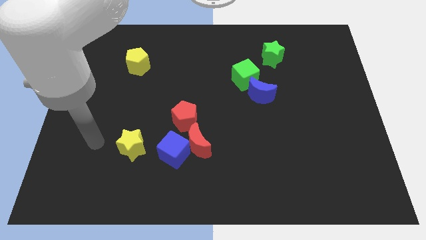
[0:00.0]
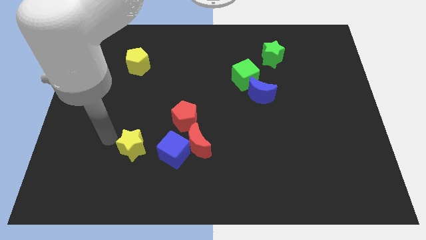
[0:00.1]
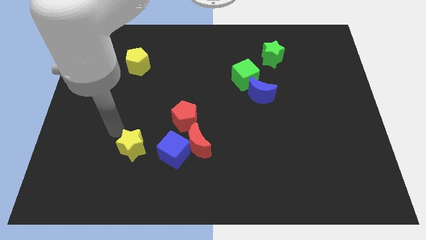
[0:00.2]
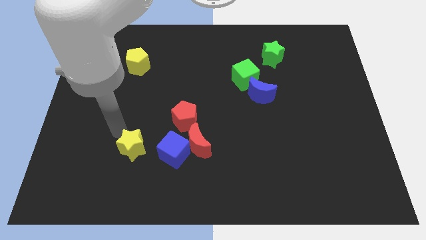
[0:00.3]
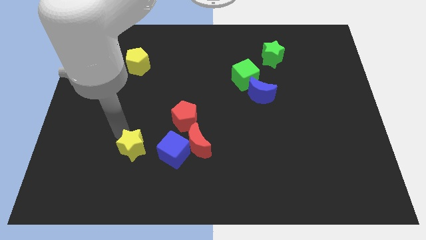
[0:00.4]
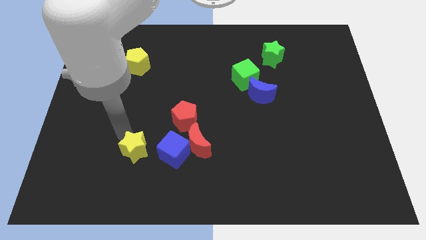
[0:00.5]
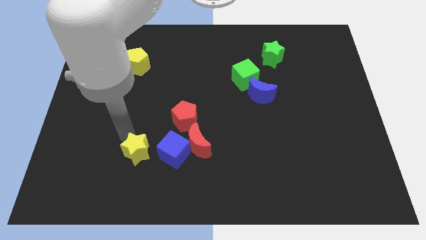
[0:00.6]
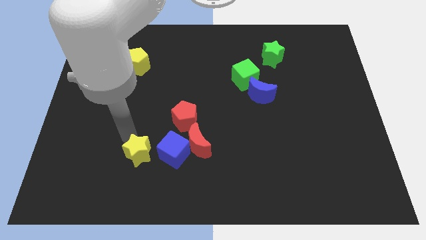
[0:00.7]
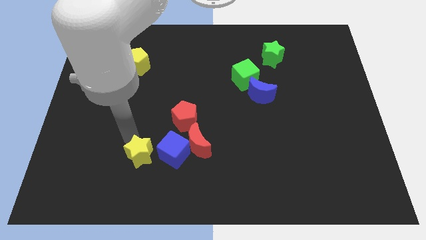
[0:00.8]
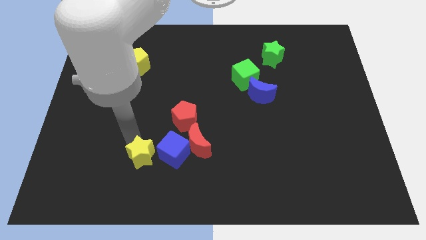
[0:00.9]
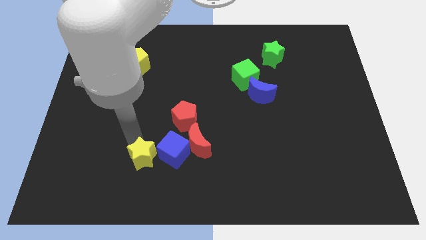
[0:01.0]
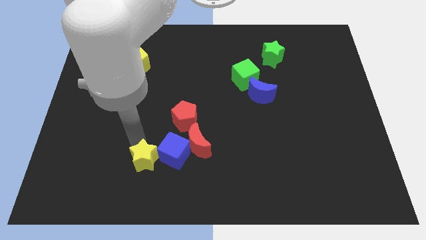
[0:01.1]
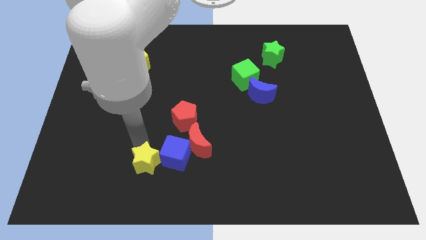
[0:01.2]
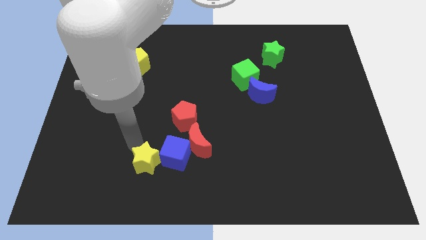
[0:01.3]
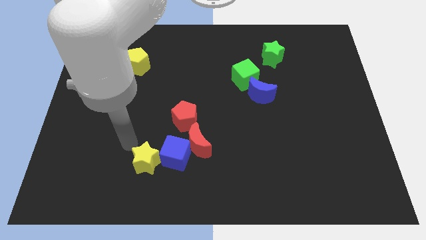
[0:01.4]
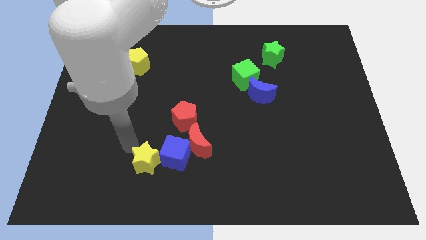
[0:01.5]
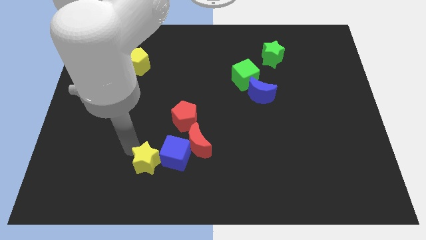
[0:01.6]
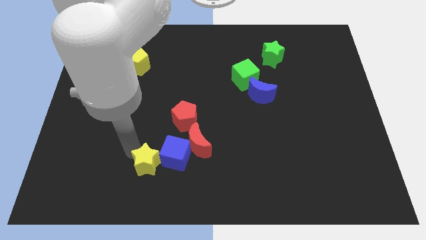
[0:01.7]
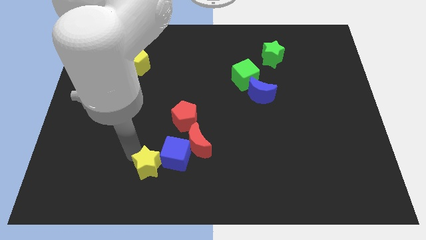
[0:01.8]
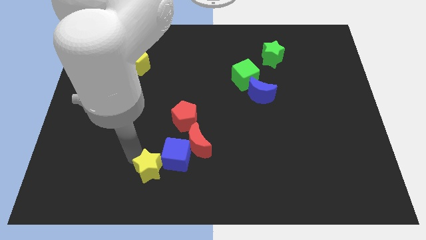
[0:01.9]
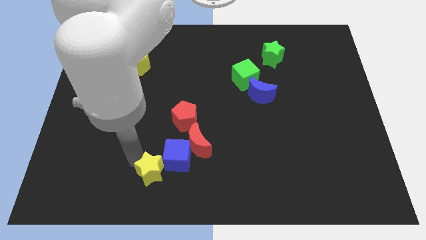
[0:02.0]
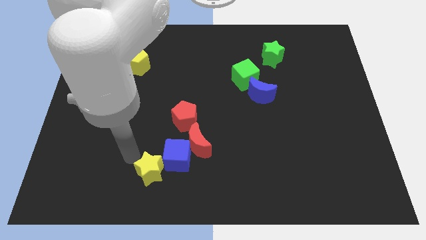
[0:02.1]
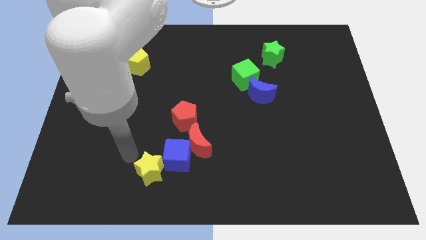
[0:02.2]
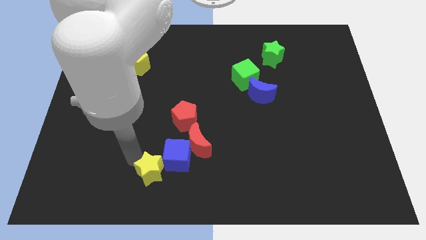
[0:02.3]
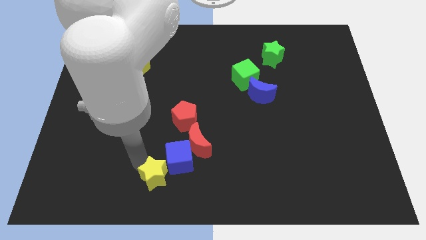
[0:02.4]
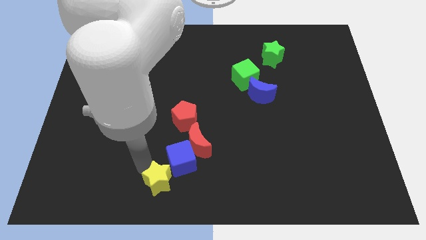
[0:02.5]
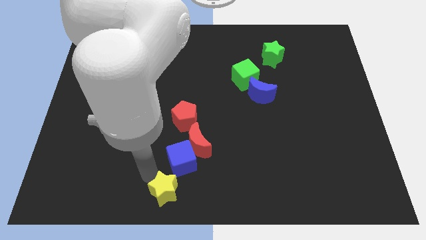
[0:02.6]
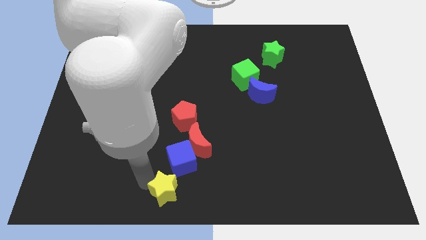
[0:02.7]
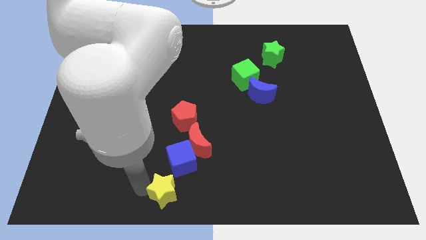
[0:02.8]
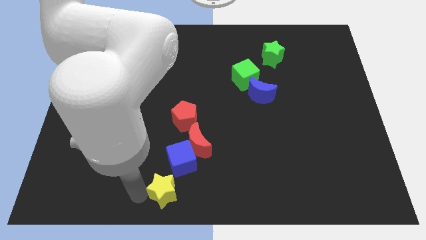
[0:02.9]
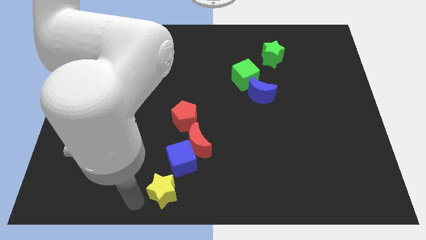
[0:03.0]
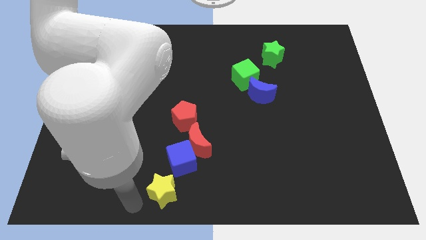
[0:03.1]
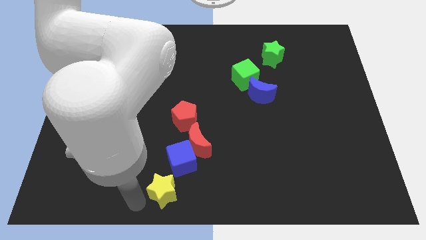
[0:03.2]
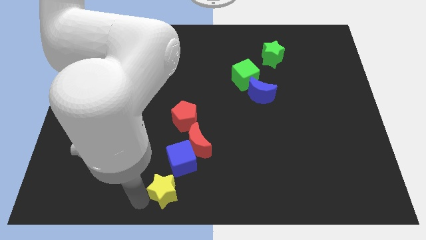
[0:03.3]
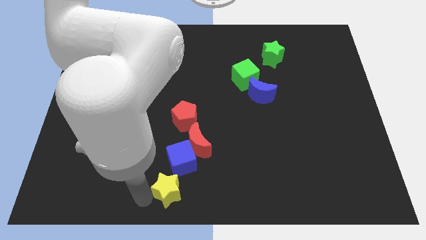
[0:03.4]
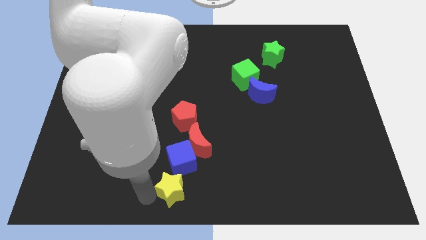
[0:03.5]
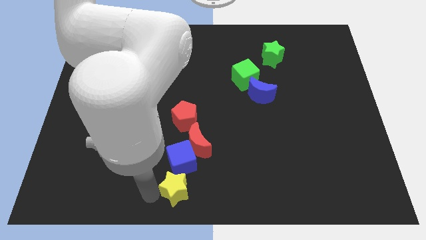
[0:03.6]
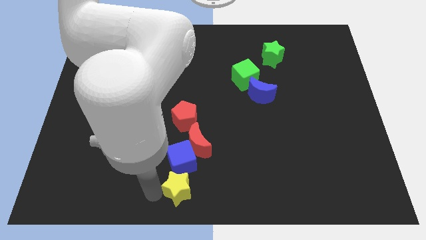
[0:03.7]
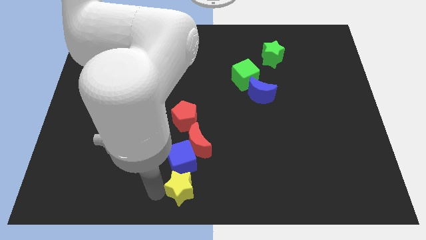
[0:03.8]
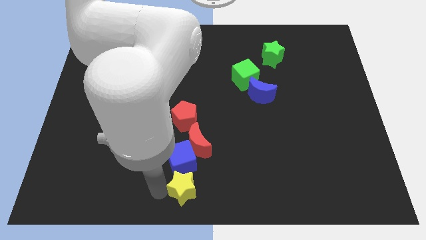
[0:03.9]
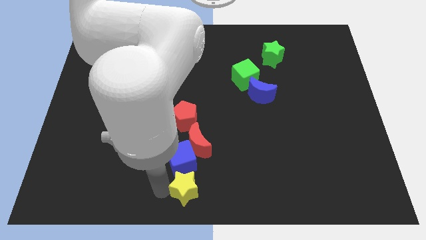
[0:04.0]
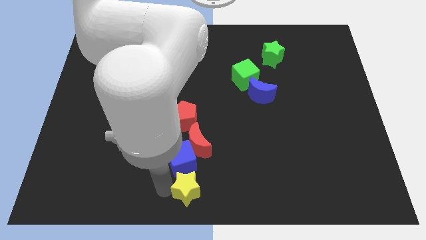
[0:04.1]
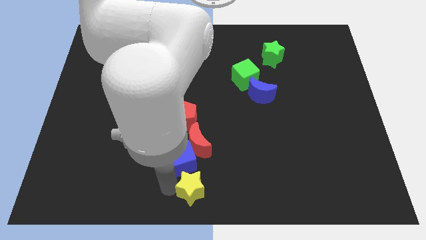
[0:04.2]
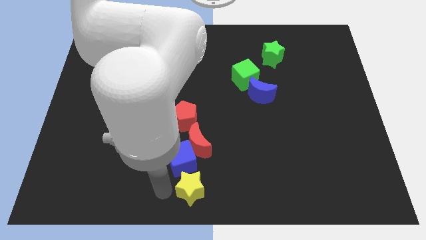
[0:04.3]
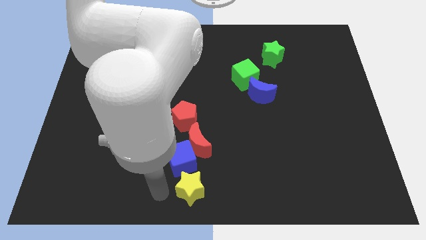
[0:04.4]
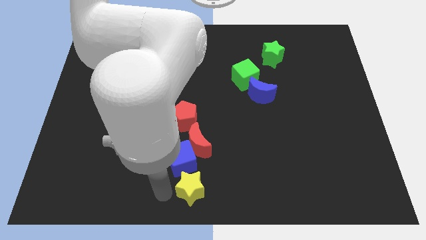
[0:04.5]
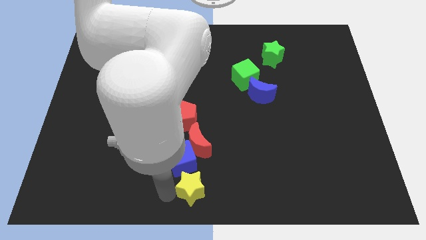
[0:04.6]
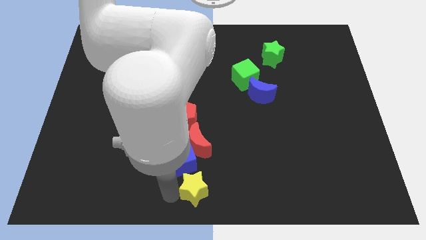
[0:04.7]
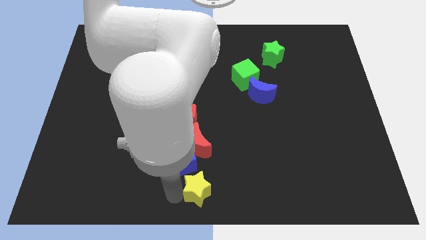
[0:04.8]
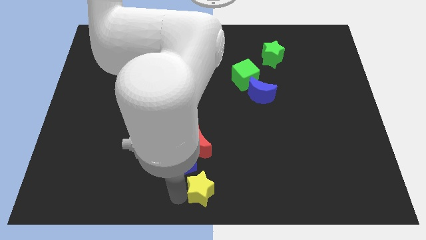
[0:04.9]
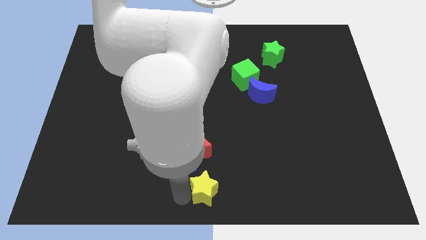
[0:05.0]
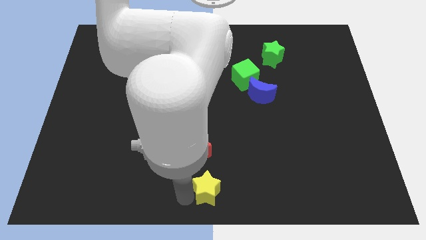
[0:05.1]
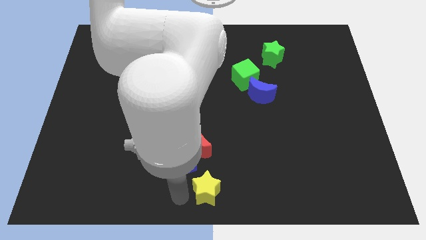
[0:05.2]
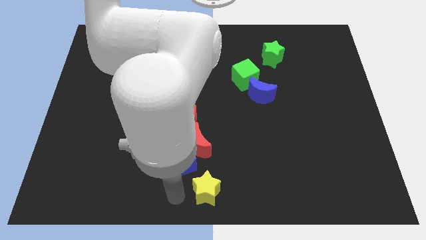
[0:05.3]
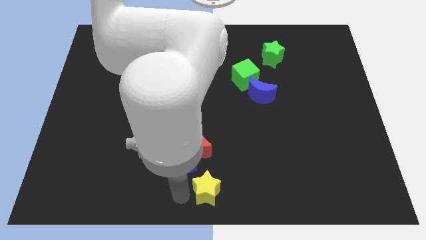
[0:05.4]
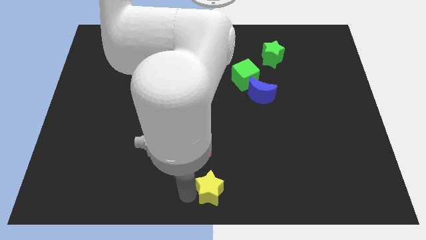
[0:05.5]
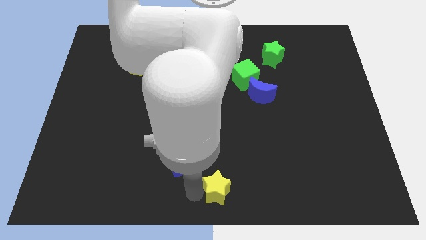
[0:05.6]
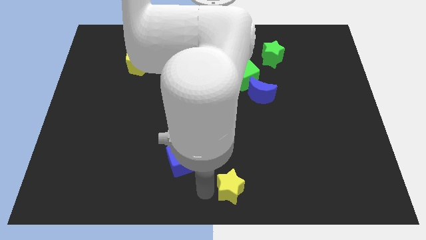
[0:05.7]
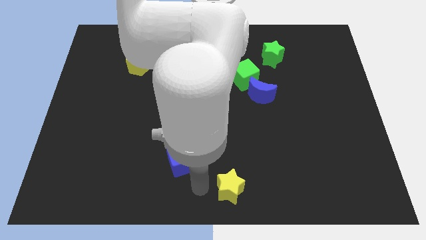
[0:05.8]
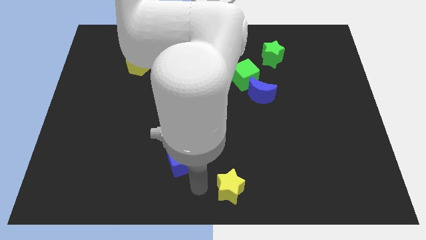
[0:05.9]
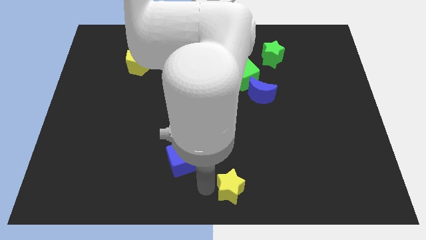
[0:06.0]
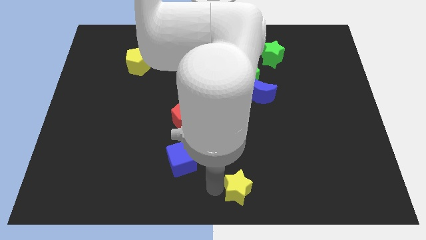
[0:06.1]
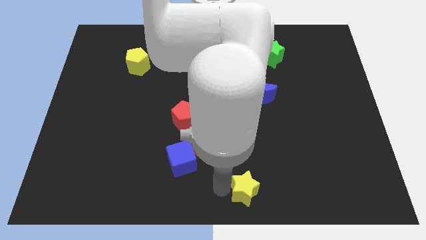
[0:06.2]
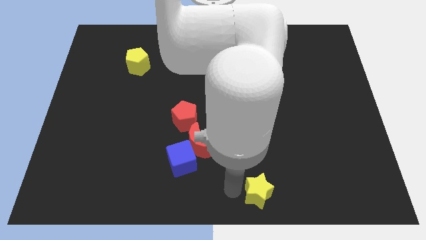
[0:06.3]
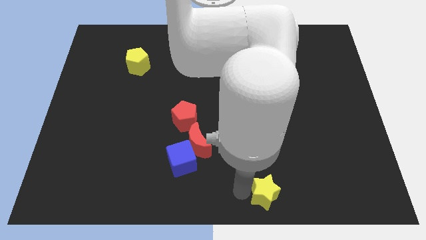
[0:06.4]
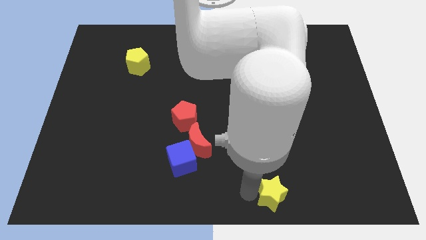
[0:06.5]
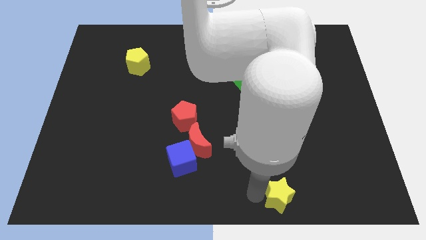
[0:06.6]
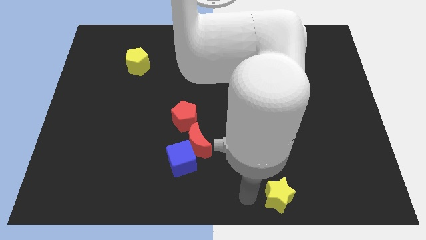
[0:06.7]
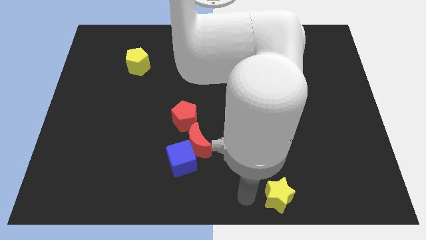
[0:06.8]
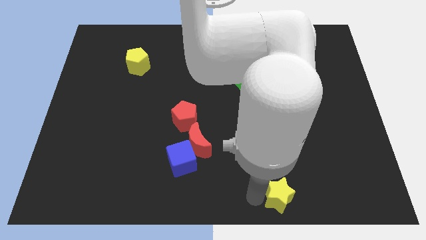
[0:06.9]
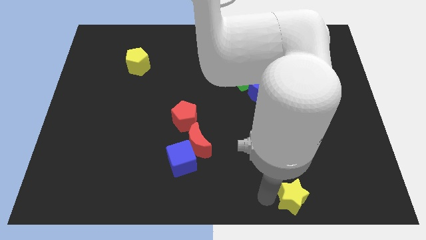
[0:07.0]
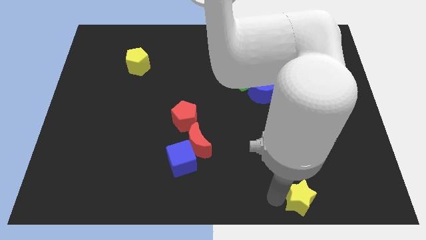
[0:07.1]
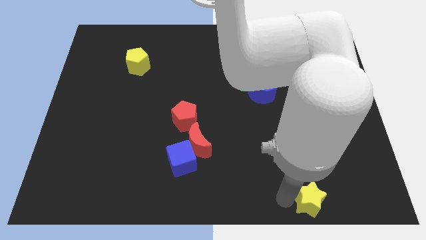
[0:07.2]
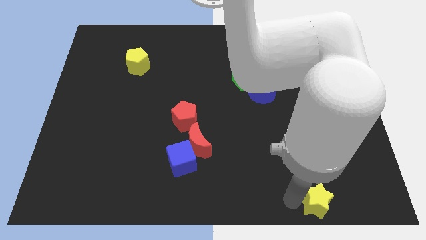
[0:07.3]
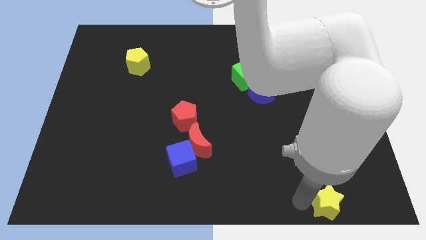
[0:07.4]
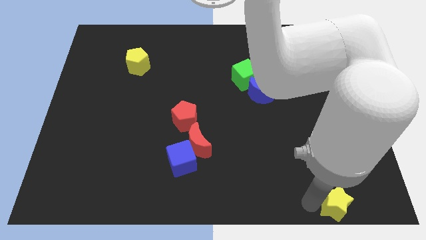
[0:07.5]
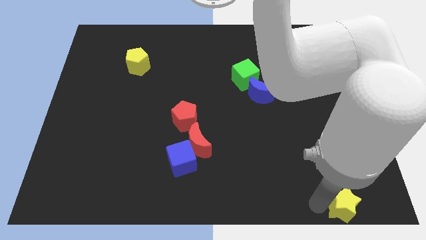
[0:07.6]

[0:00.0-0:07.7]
push the yellow star to the bottom right corner
